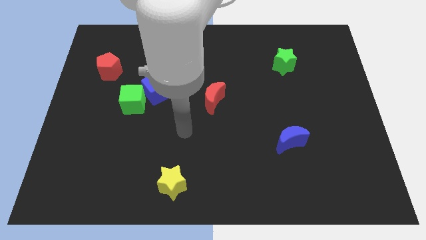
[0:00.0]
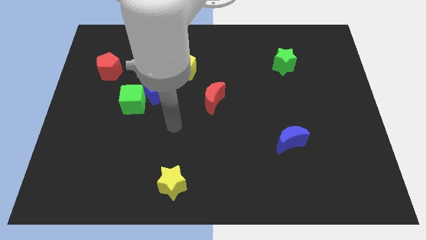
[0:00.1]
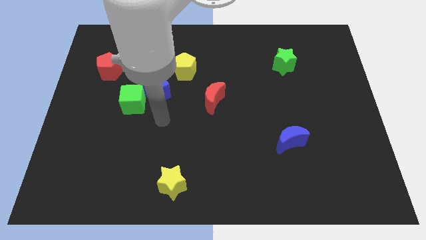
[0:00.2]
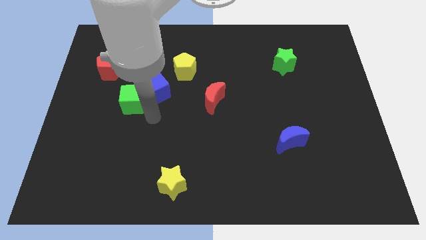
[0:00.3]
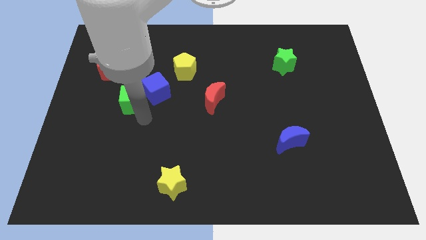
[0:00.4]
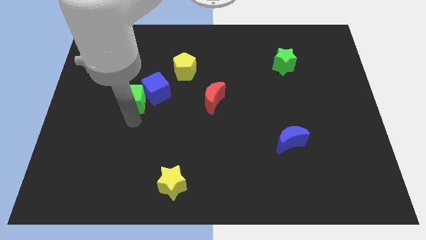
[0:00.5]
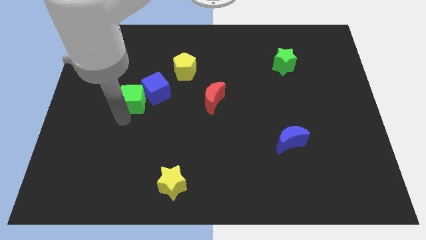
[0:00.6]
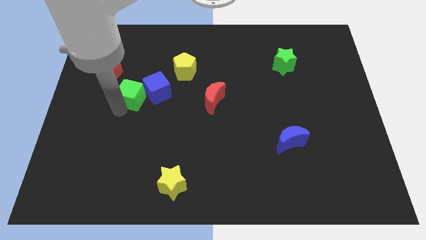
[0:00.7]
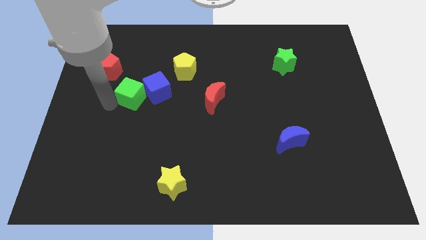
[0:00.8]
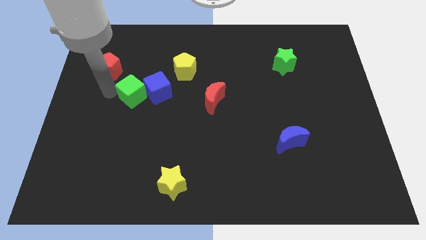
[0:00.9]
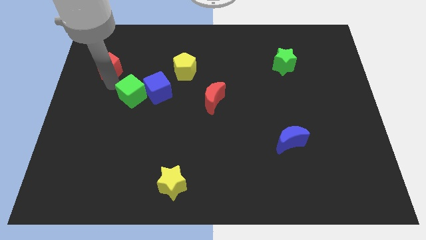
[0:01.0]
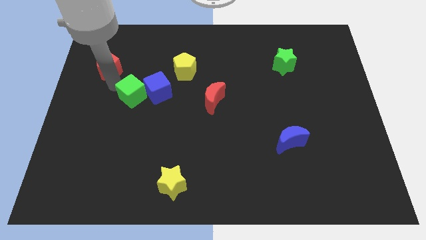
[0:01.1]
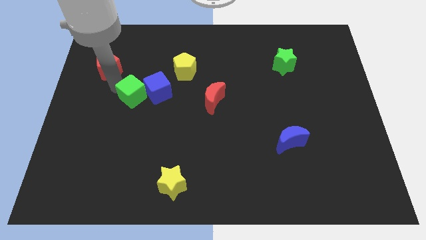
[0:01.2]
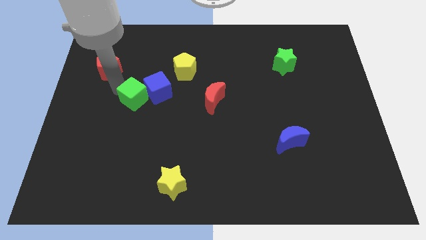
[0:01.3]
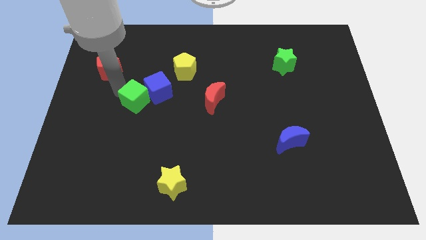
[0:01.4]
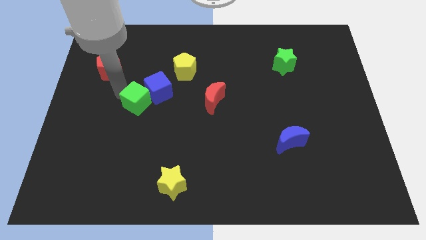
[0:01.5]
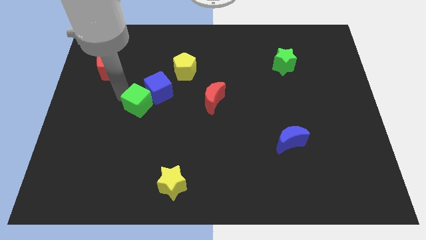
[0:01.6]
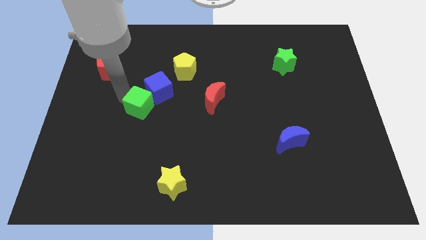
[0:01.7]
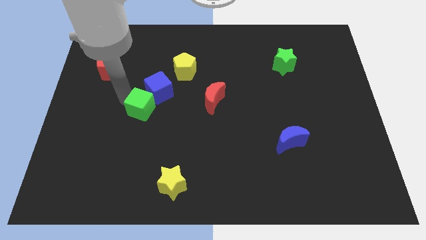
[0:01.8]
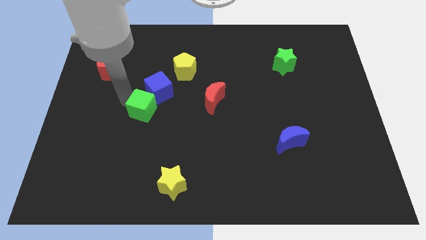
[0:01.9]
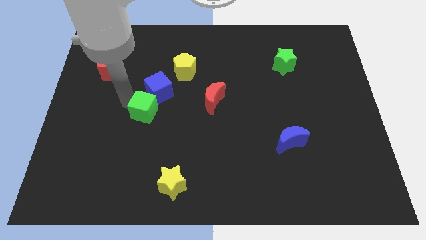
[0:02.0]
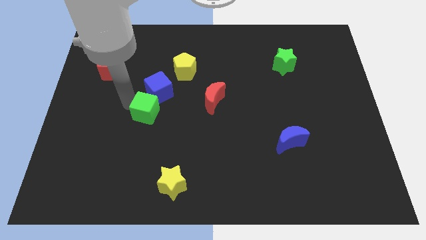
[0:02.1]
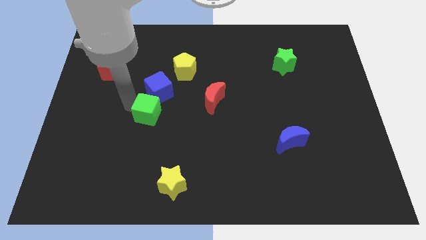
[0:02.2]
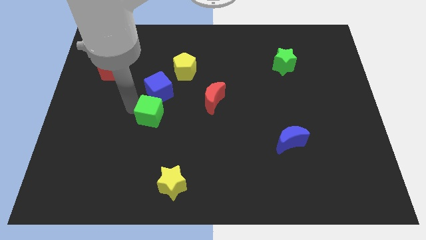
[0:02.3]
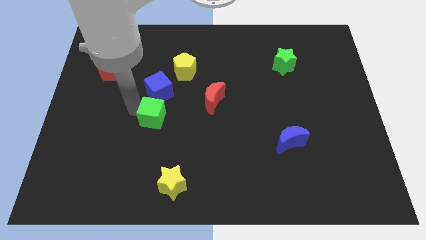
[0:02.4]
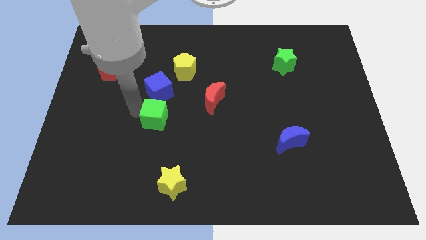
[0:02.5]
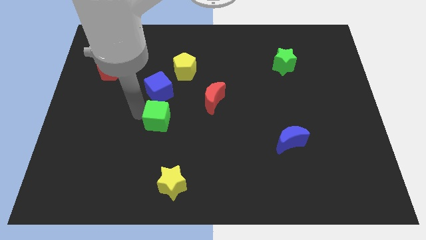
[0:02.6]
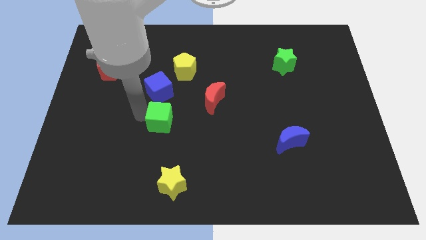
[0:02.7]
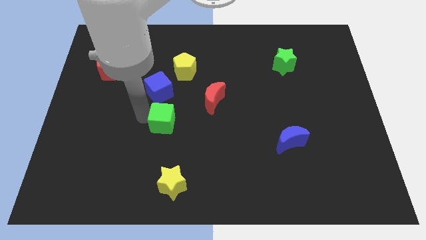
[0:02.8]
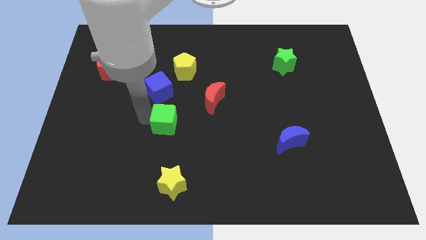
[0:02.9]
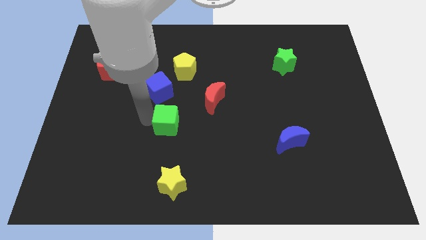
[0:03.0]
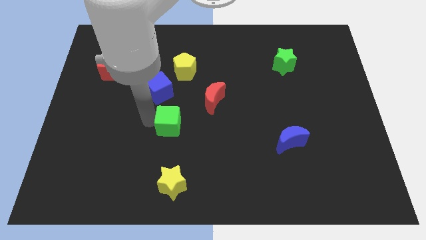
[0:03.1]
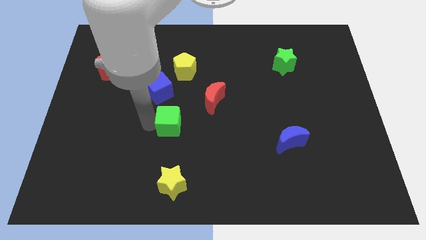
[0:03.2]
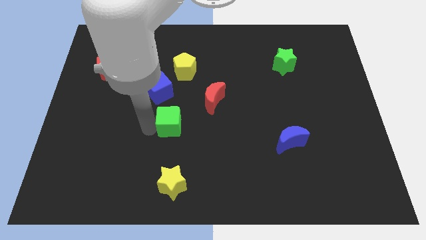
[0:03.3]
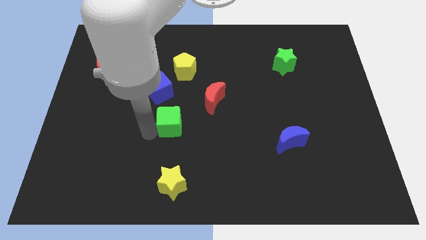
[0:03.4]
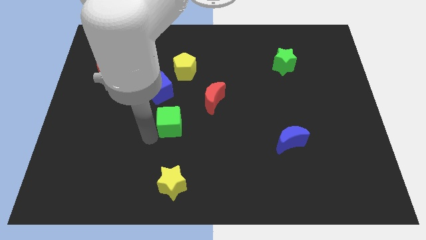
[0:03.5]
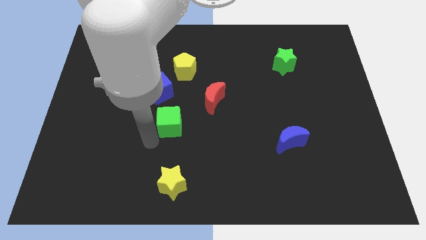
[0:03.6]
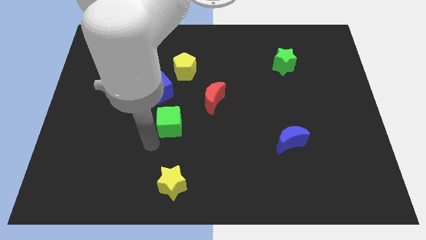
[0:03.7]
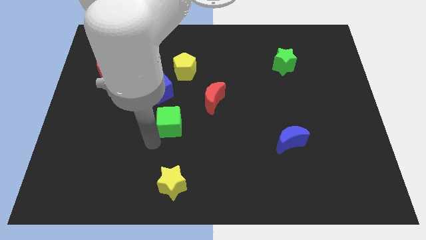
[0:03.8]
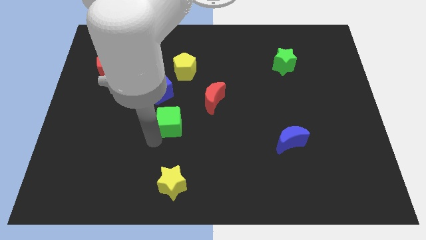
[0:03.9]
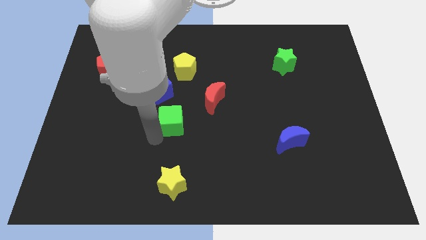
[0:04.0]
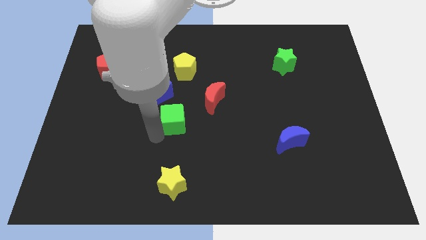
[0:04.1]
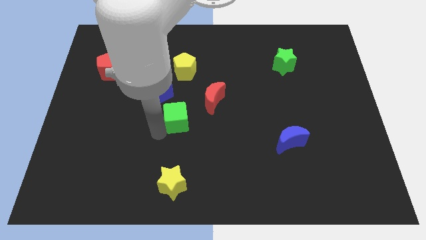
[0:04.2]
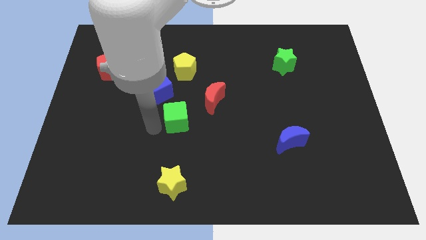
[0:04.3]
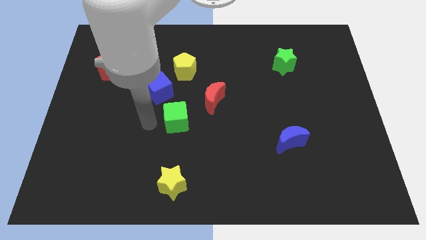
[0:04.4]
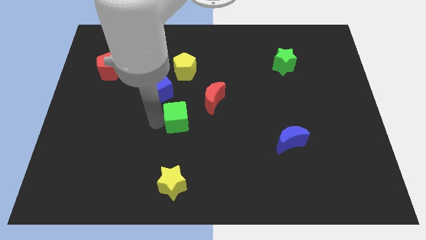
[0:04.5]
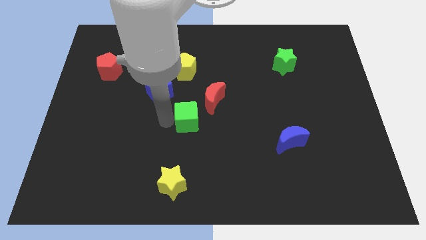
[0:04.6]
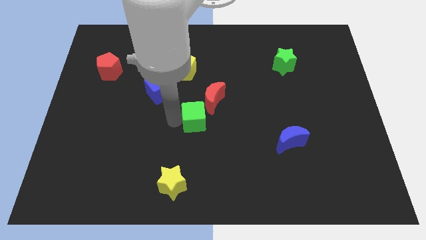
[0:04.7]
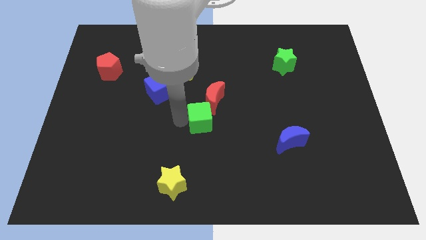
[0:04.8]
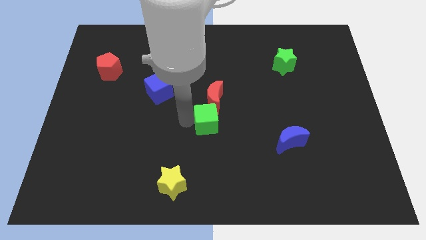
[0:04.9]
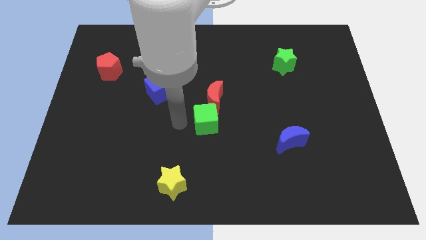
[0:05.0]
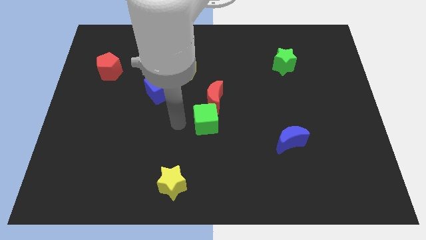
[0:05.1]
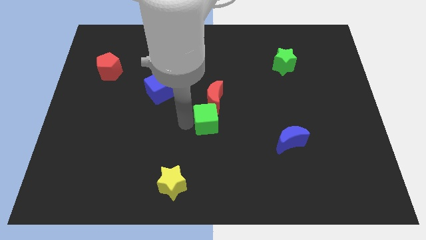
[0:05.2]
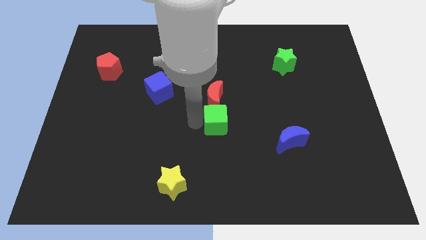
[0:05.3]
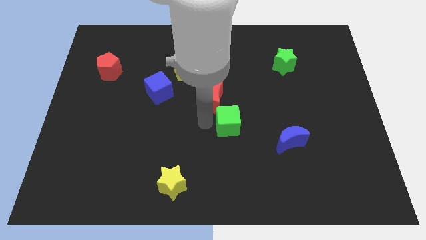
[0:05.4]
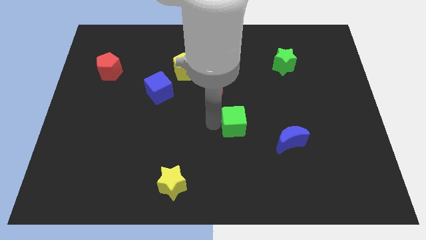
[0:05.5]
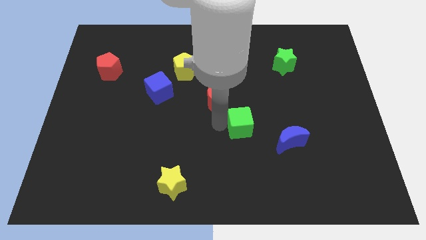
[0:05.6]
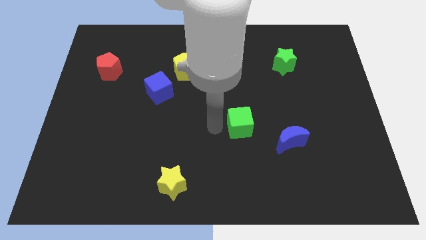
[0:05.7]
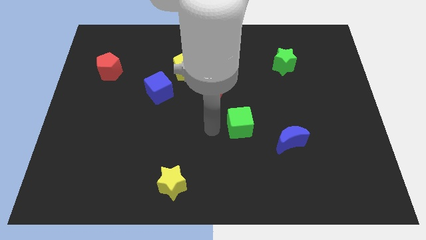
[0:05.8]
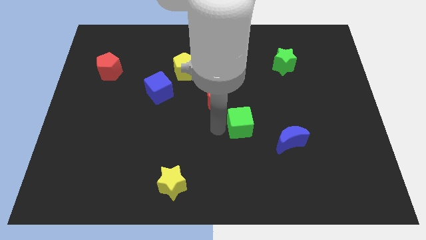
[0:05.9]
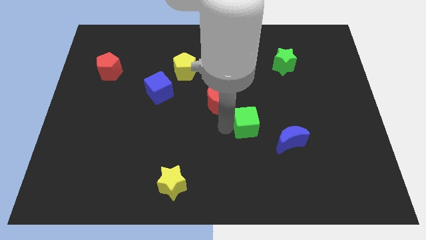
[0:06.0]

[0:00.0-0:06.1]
push the green cube to the top left of the blue moon

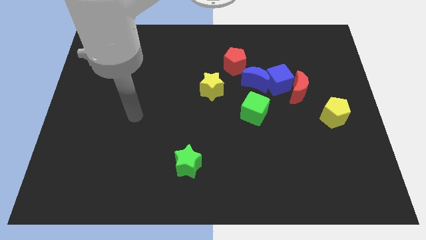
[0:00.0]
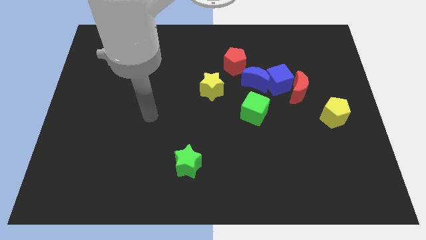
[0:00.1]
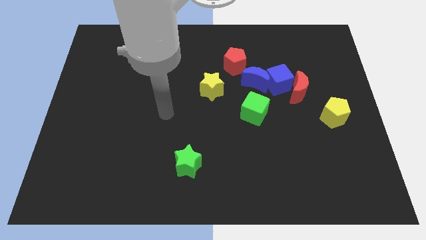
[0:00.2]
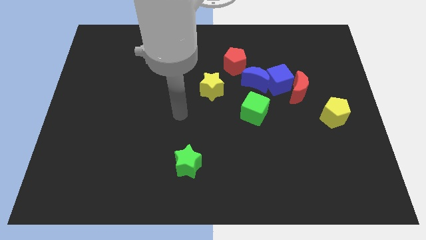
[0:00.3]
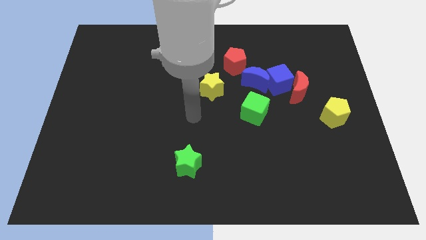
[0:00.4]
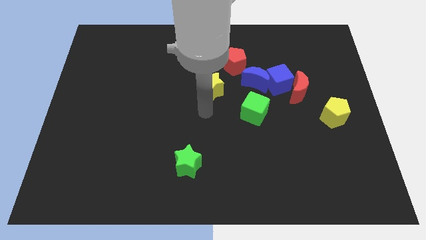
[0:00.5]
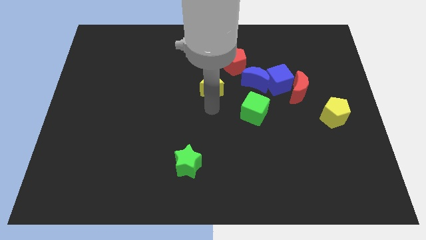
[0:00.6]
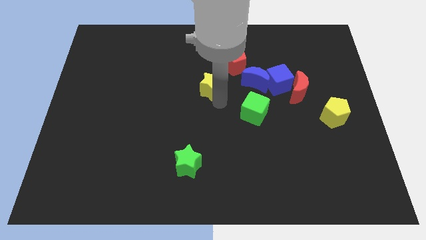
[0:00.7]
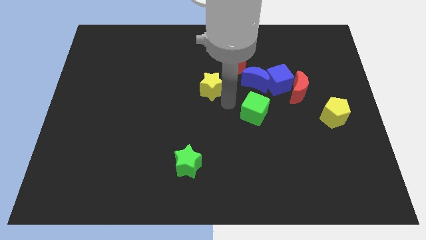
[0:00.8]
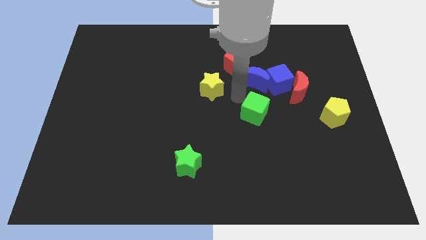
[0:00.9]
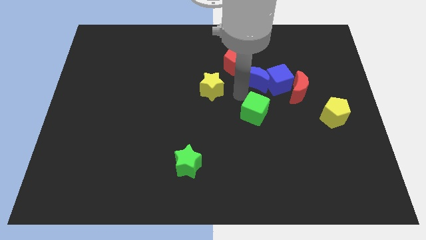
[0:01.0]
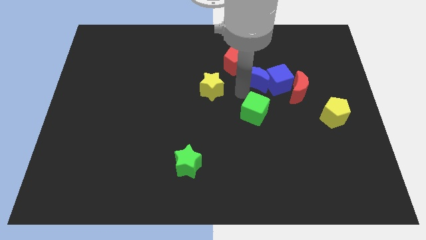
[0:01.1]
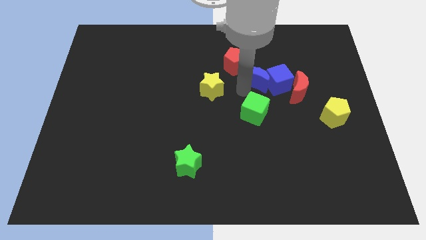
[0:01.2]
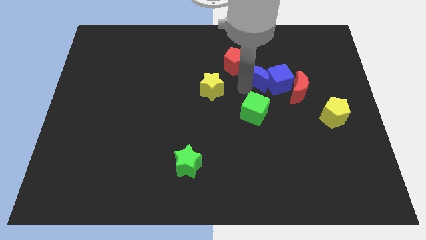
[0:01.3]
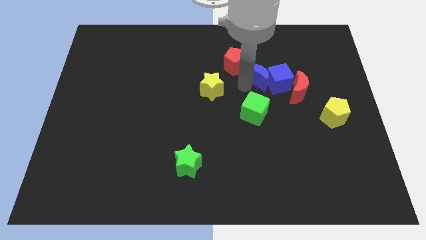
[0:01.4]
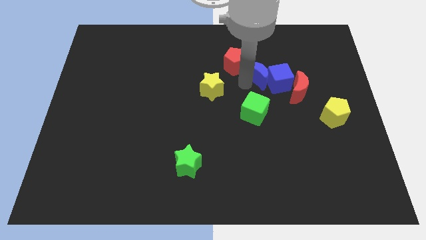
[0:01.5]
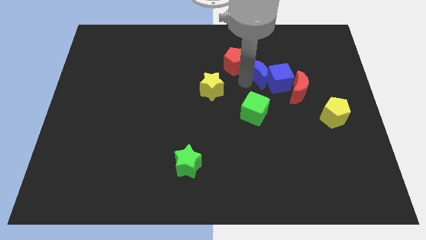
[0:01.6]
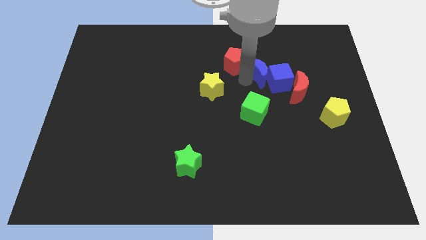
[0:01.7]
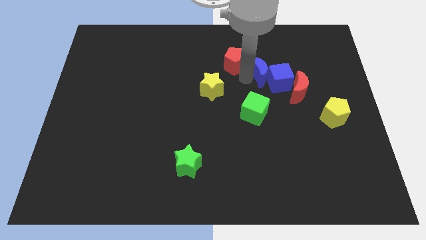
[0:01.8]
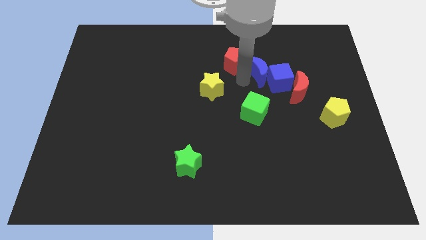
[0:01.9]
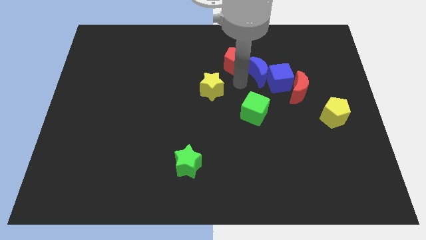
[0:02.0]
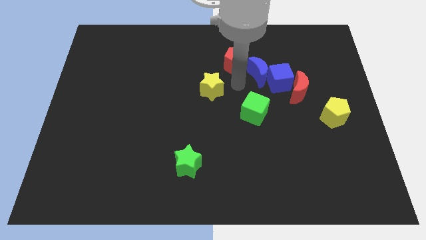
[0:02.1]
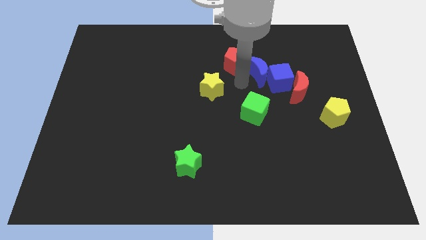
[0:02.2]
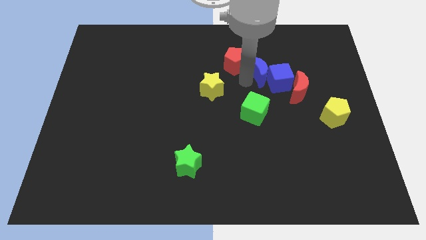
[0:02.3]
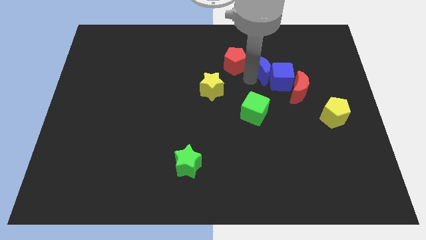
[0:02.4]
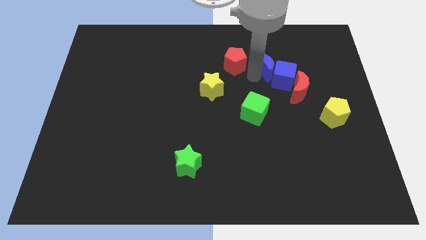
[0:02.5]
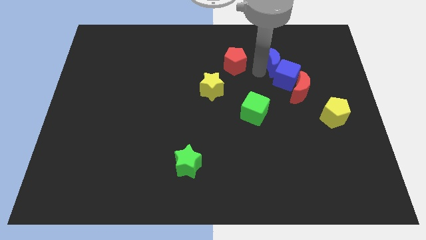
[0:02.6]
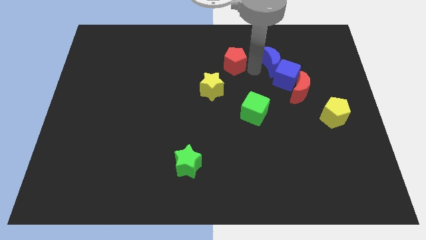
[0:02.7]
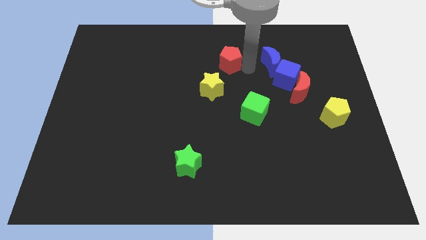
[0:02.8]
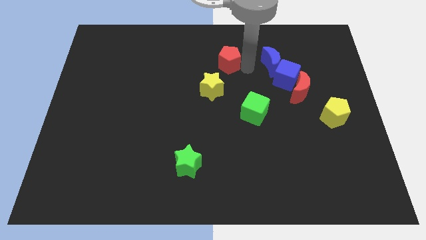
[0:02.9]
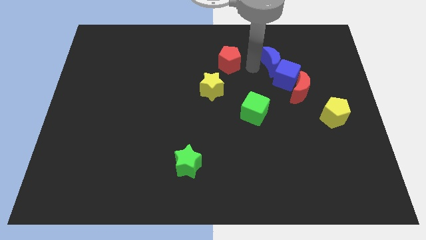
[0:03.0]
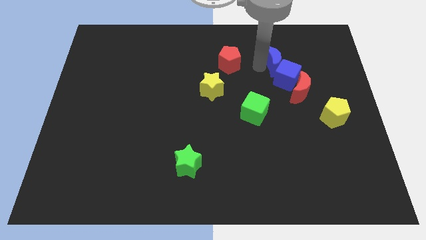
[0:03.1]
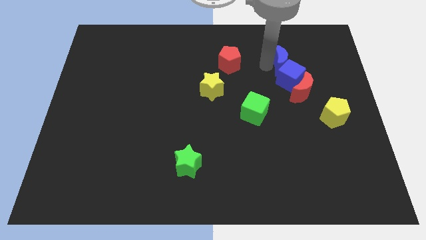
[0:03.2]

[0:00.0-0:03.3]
slide the blue moon to the top of the red moon
